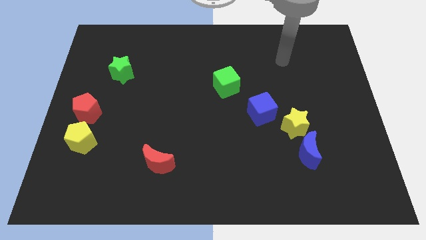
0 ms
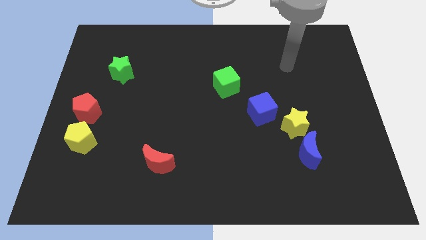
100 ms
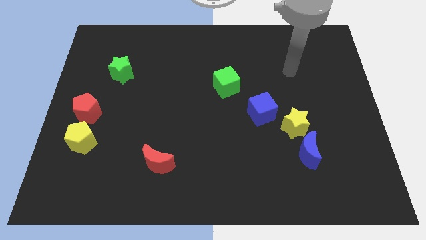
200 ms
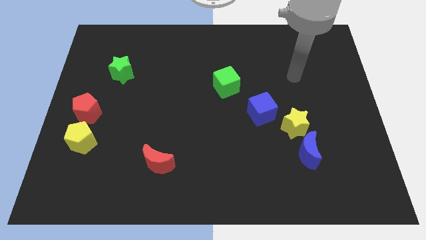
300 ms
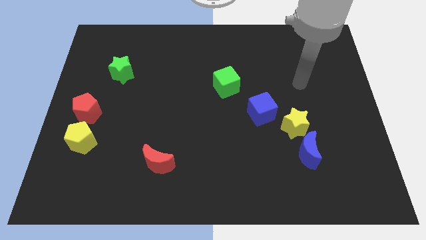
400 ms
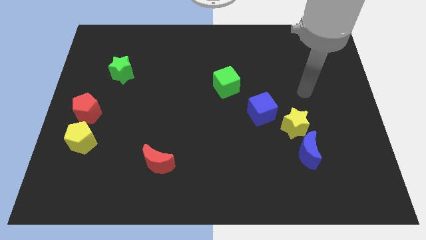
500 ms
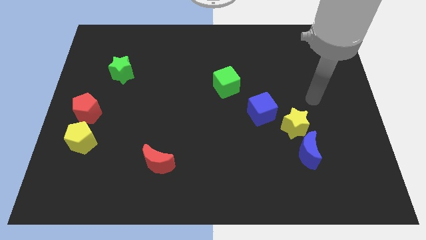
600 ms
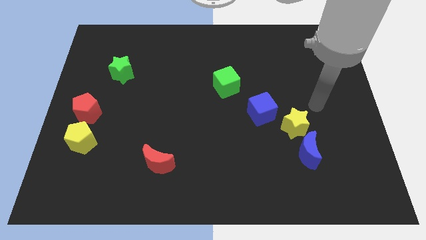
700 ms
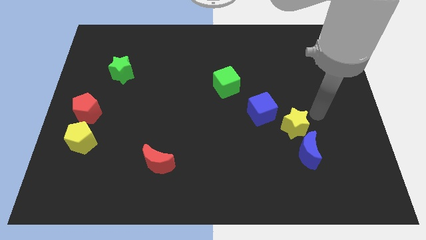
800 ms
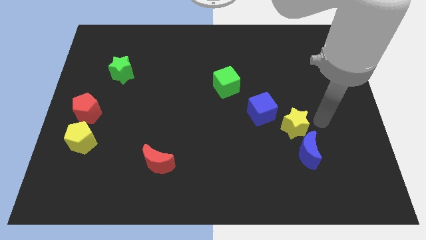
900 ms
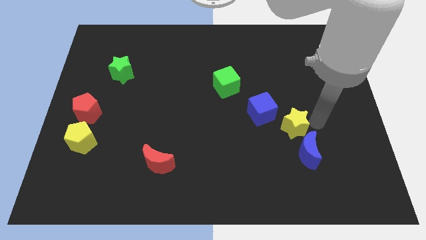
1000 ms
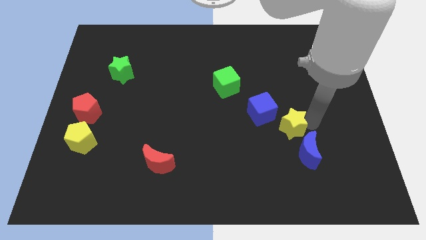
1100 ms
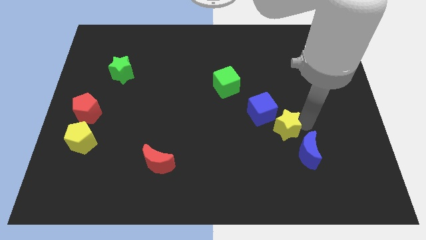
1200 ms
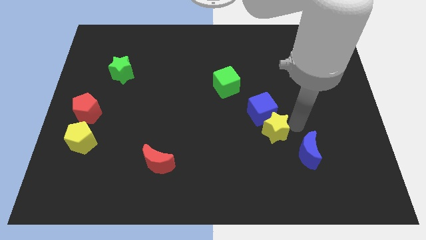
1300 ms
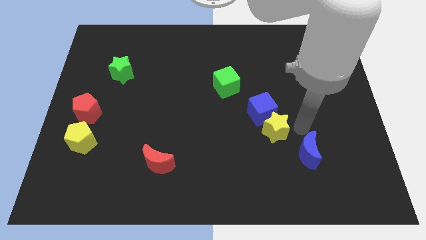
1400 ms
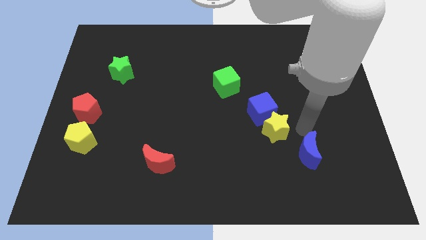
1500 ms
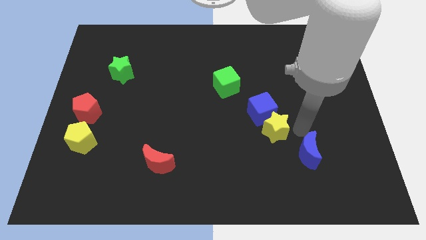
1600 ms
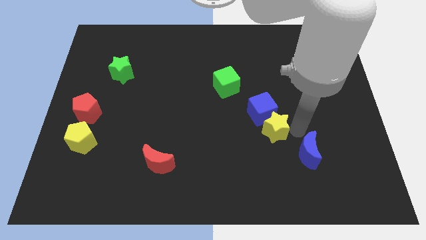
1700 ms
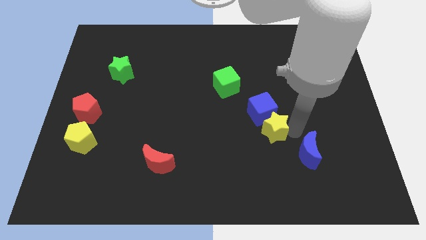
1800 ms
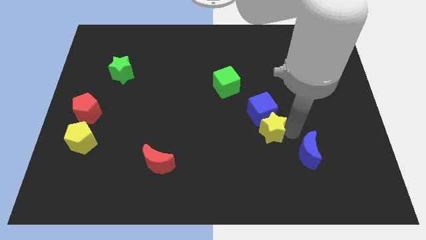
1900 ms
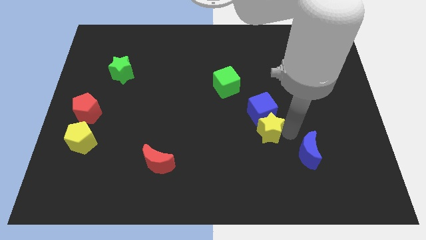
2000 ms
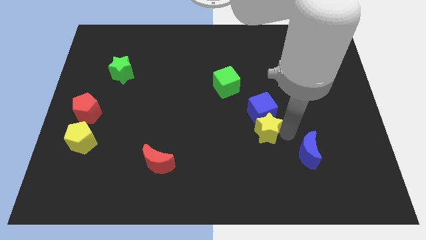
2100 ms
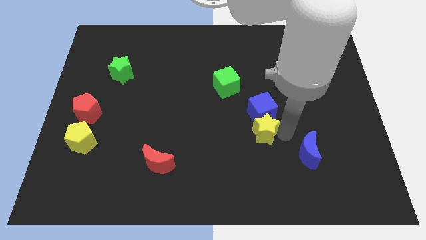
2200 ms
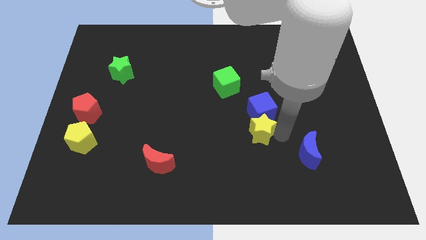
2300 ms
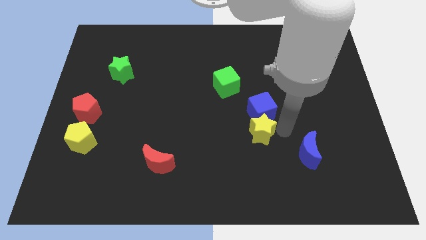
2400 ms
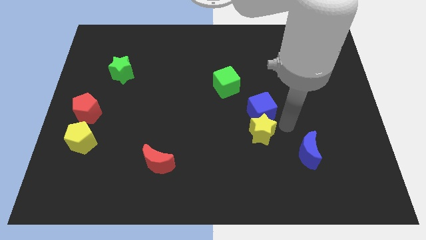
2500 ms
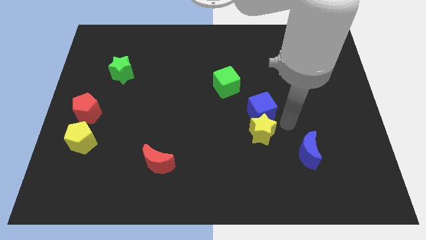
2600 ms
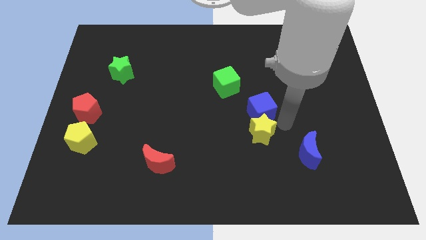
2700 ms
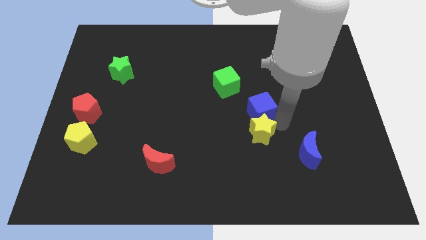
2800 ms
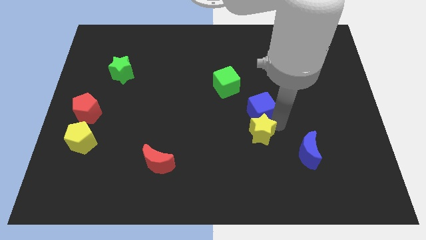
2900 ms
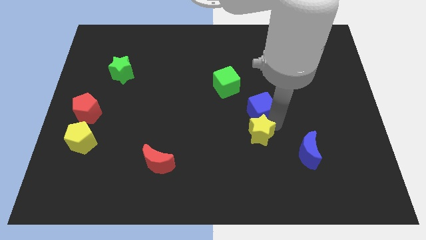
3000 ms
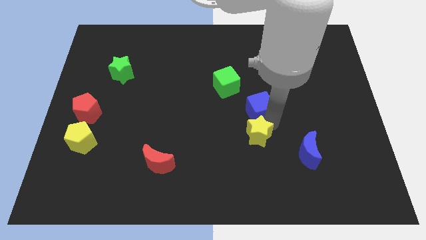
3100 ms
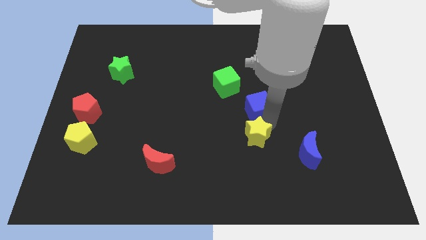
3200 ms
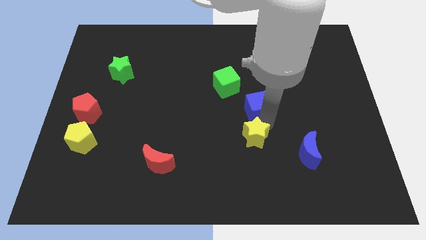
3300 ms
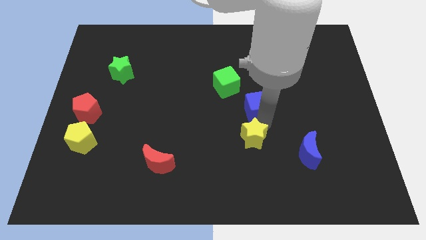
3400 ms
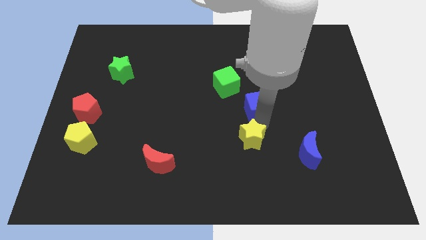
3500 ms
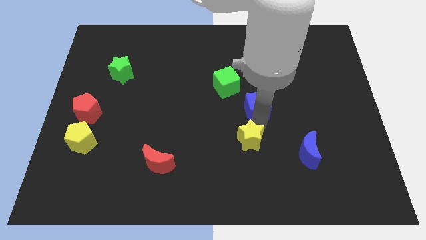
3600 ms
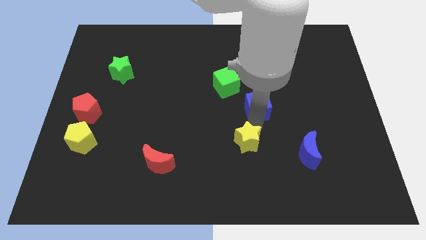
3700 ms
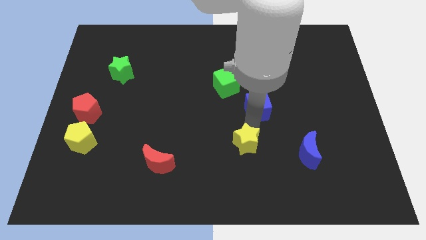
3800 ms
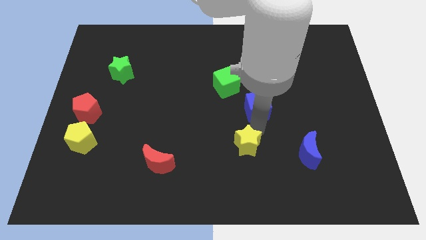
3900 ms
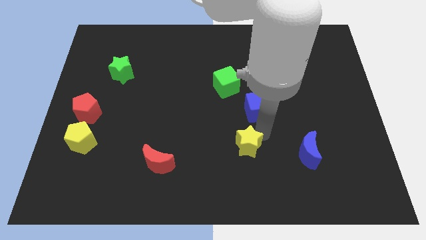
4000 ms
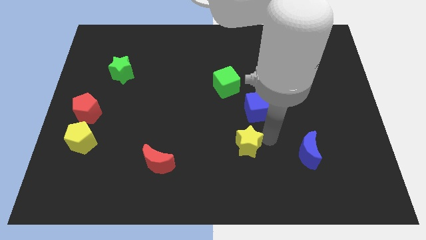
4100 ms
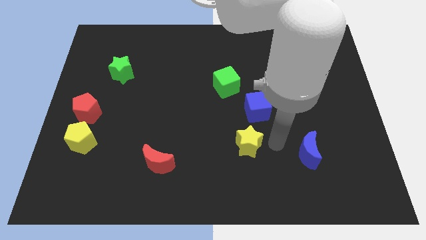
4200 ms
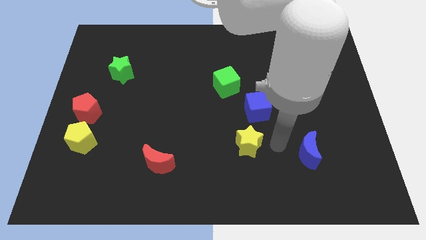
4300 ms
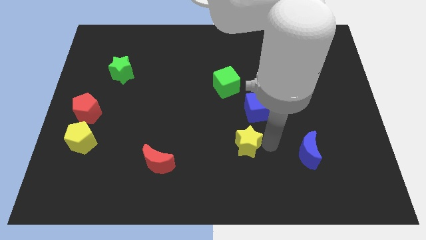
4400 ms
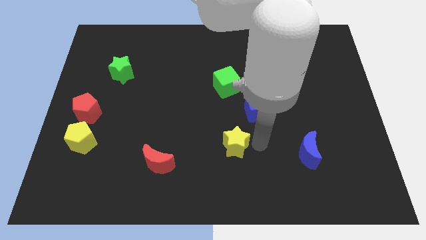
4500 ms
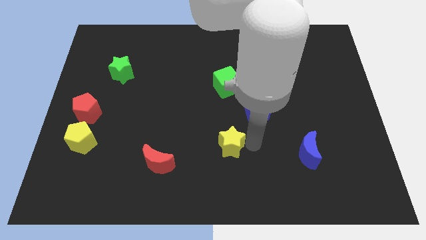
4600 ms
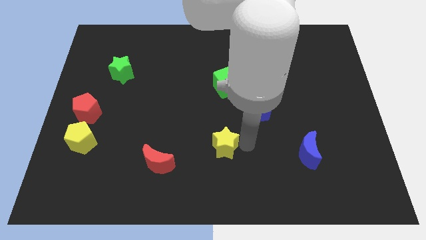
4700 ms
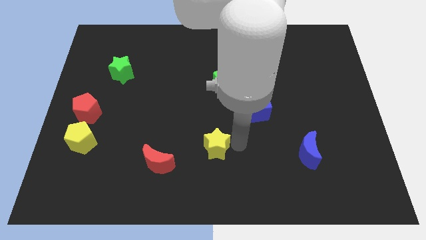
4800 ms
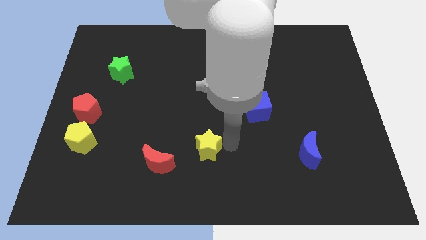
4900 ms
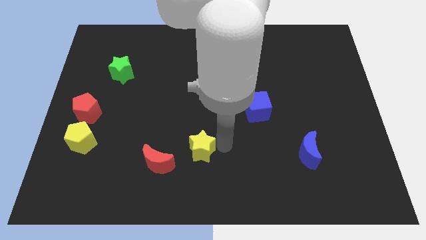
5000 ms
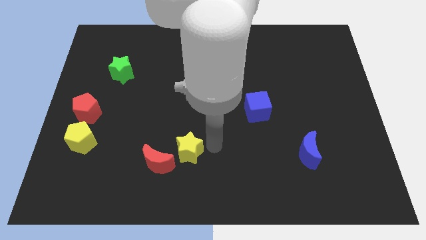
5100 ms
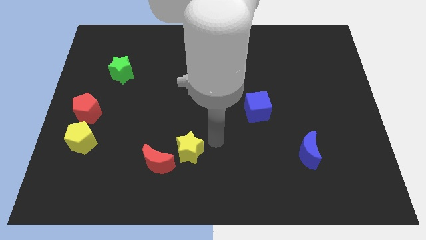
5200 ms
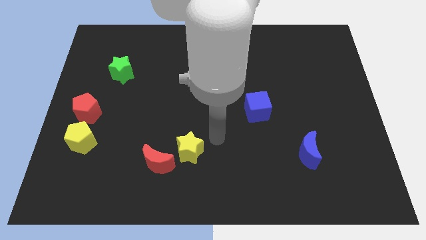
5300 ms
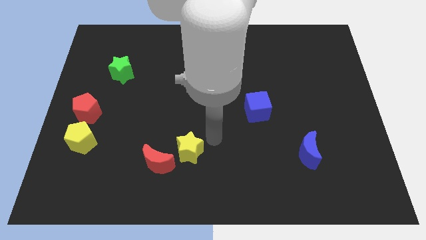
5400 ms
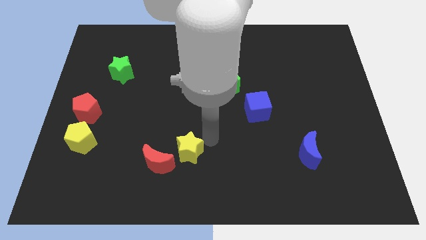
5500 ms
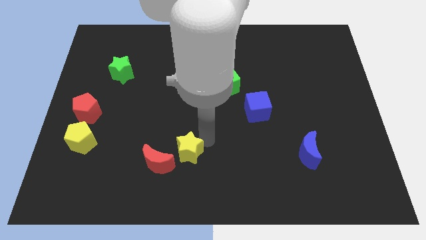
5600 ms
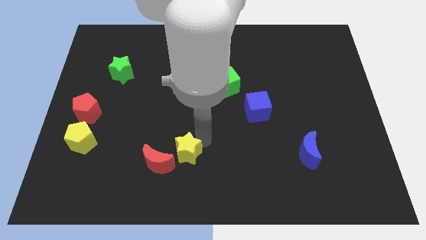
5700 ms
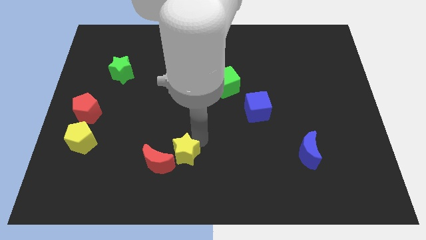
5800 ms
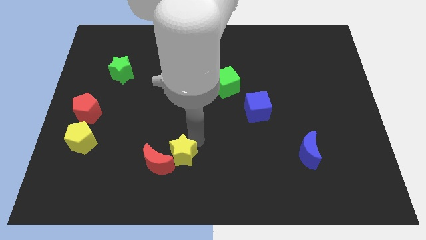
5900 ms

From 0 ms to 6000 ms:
move the yellow star close to the red moon

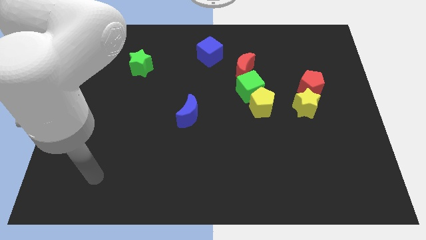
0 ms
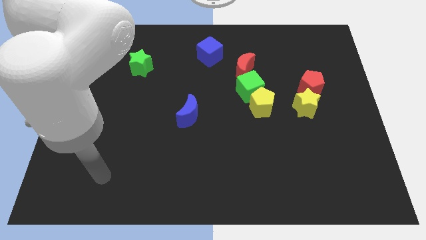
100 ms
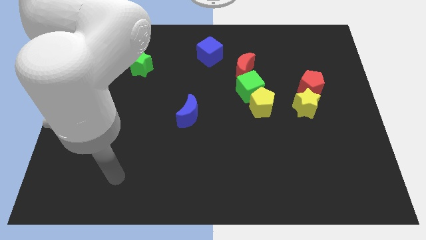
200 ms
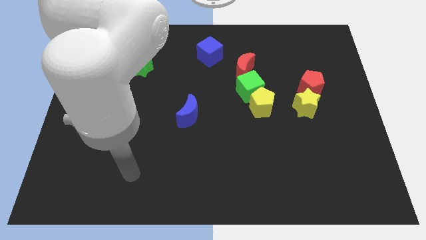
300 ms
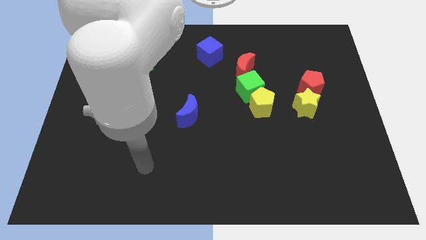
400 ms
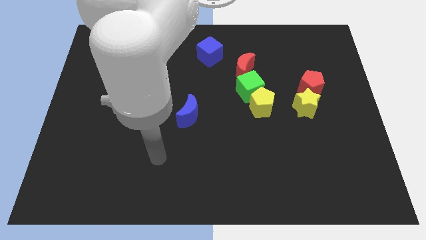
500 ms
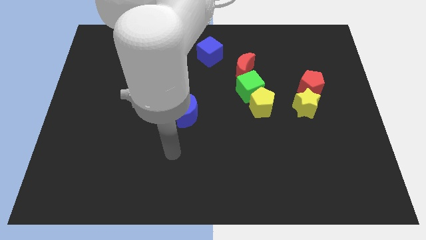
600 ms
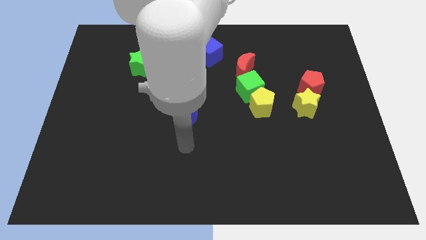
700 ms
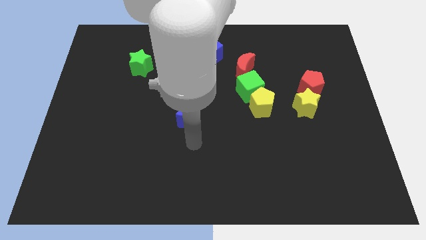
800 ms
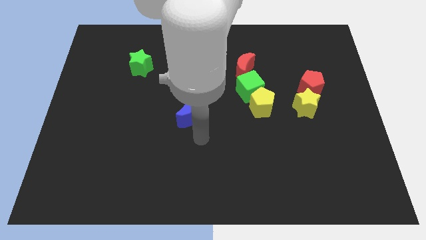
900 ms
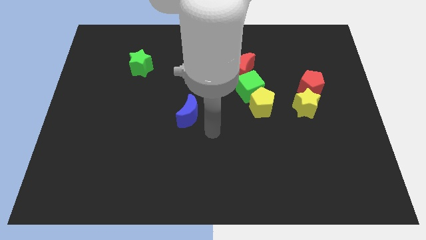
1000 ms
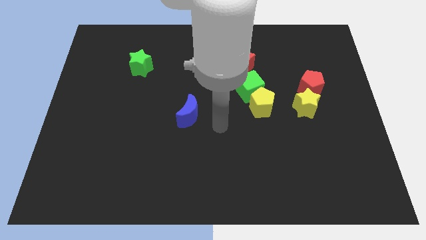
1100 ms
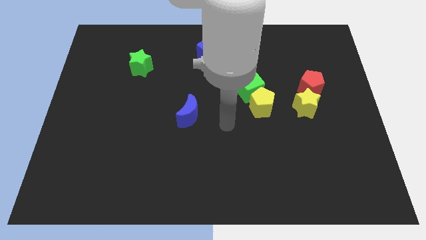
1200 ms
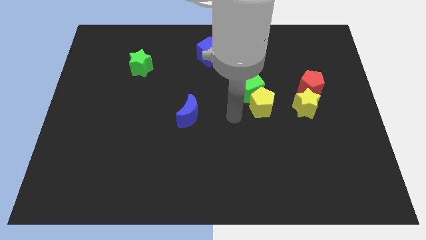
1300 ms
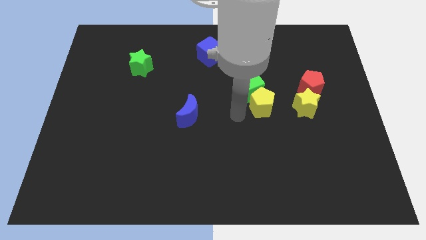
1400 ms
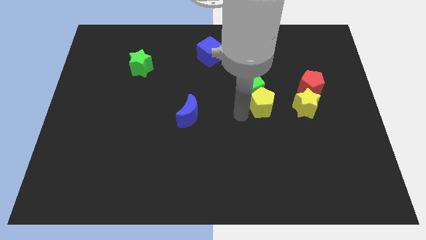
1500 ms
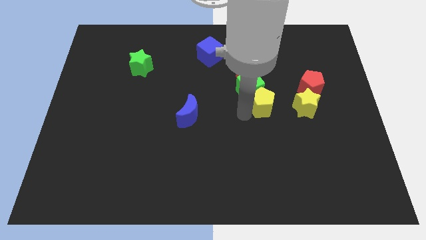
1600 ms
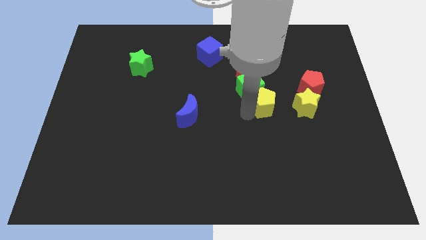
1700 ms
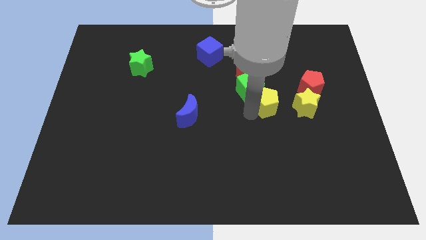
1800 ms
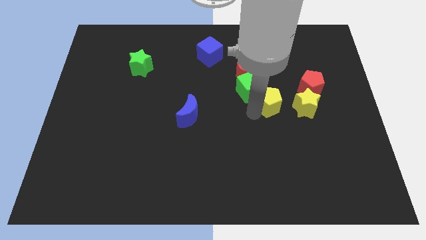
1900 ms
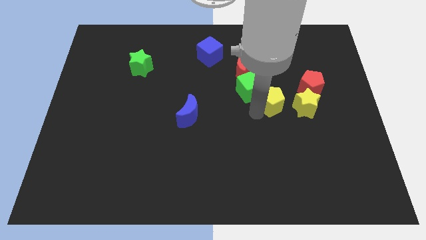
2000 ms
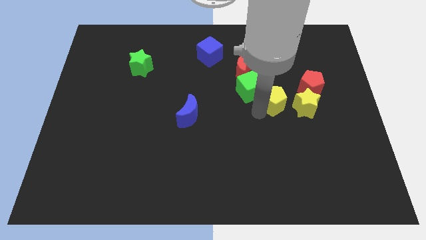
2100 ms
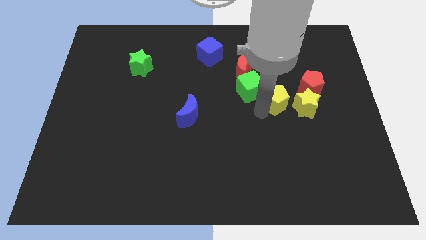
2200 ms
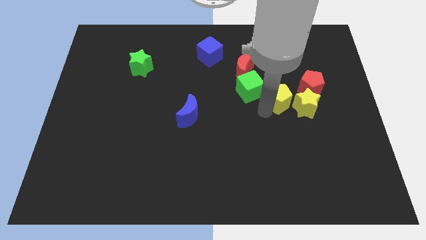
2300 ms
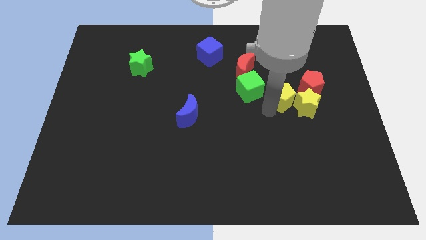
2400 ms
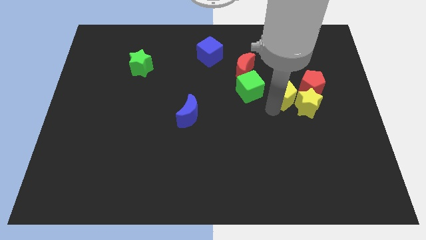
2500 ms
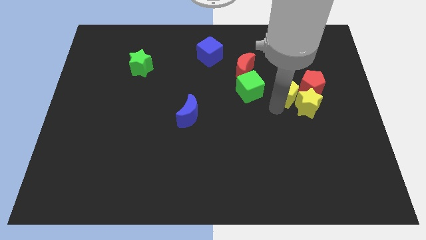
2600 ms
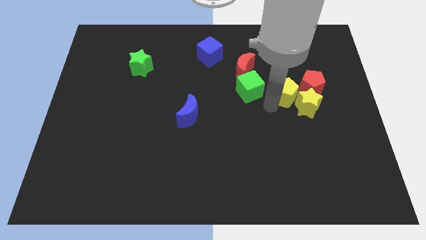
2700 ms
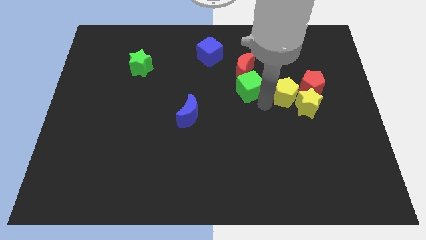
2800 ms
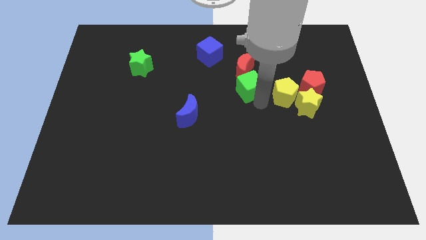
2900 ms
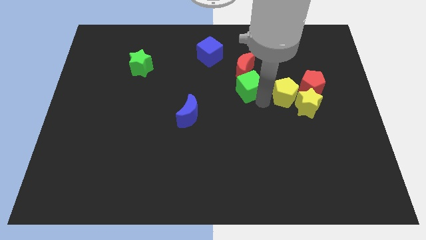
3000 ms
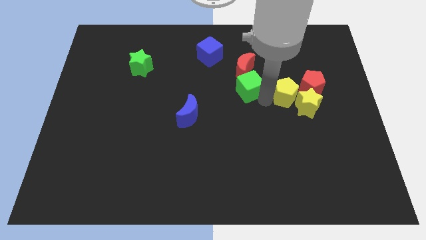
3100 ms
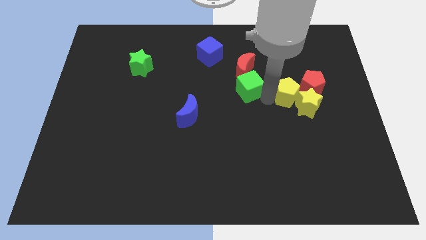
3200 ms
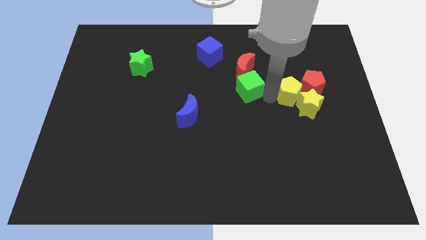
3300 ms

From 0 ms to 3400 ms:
put the yellow pentagon to the red pentagon
